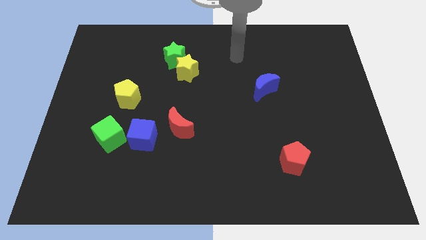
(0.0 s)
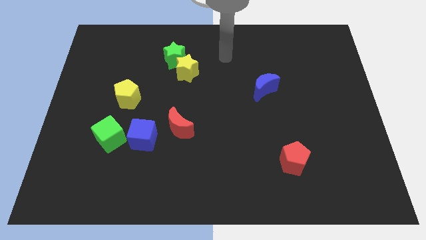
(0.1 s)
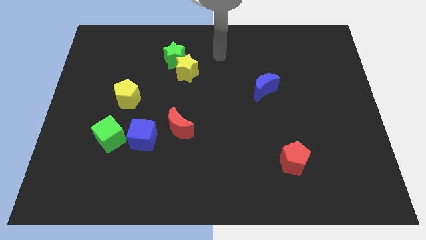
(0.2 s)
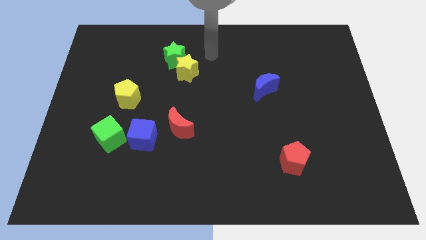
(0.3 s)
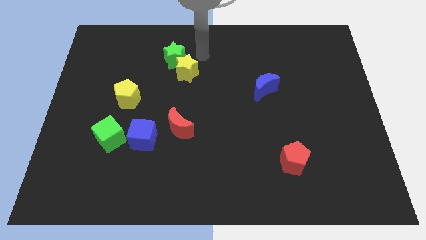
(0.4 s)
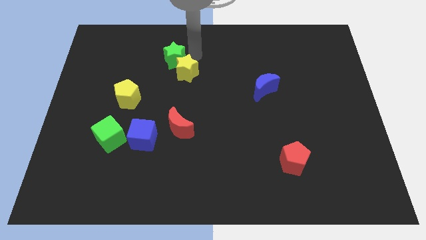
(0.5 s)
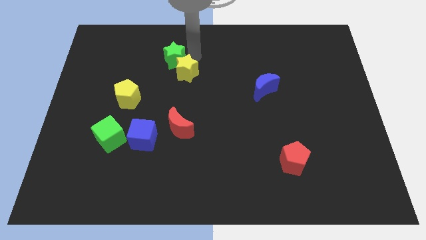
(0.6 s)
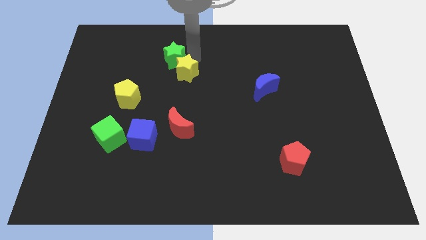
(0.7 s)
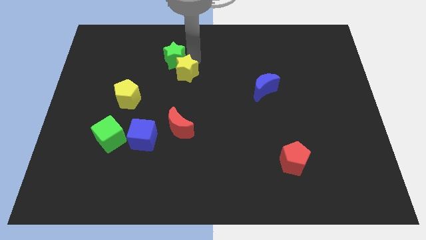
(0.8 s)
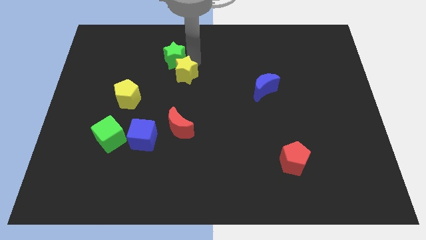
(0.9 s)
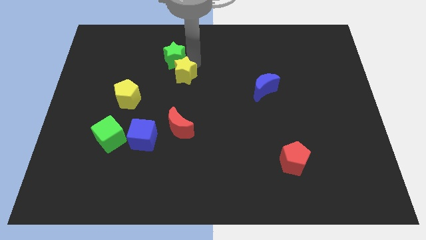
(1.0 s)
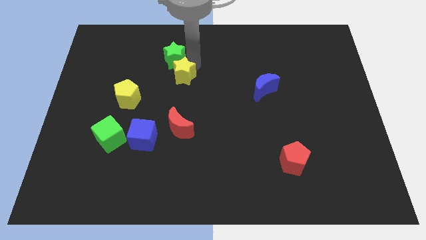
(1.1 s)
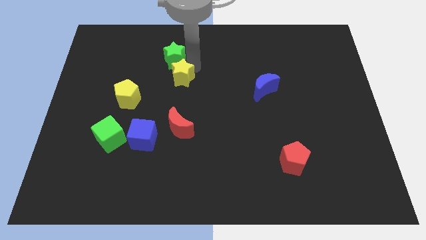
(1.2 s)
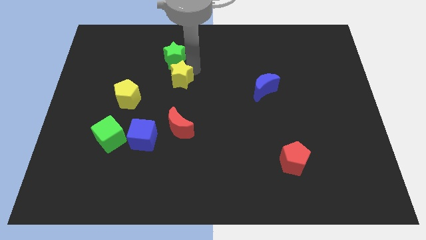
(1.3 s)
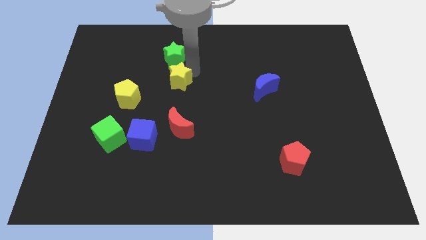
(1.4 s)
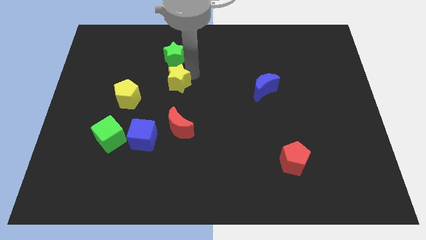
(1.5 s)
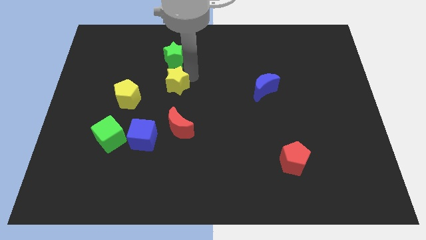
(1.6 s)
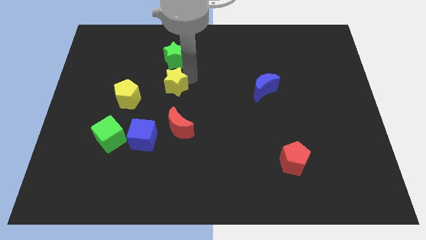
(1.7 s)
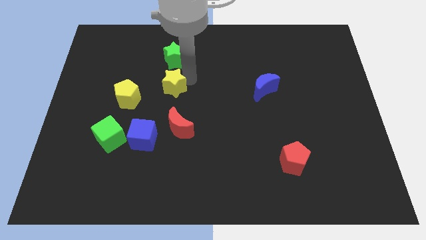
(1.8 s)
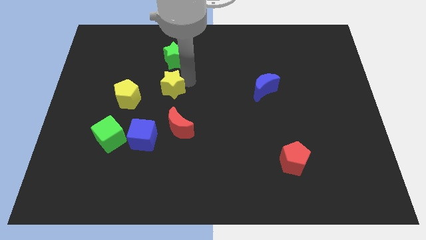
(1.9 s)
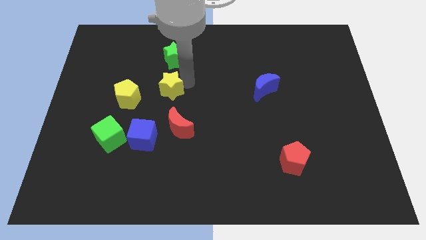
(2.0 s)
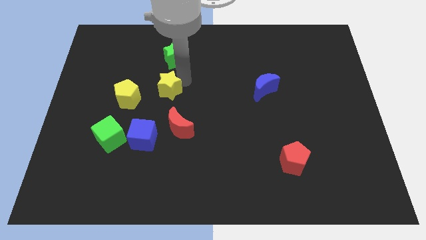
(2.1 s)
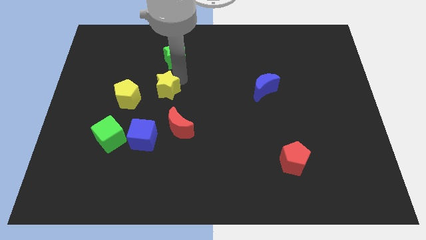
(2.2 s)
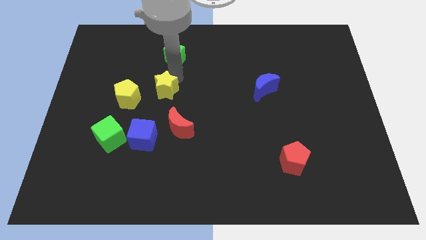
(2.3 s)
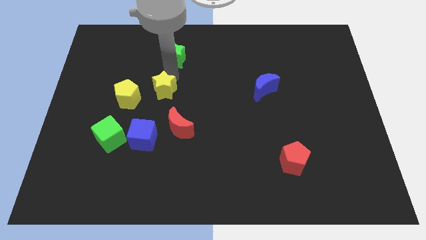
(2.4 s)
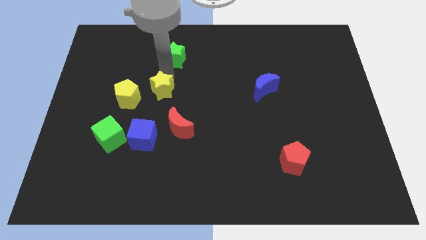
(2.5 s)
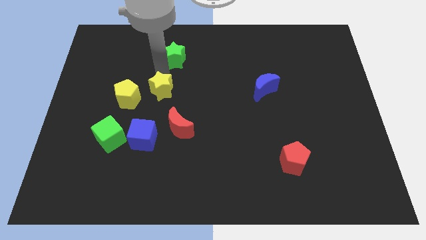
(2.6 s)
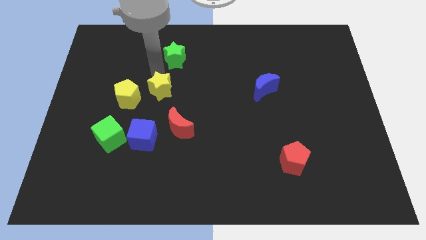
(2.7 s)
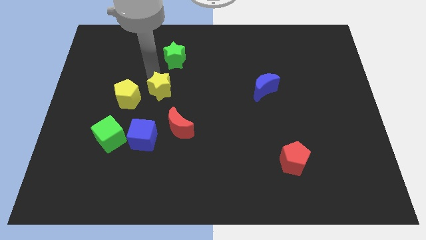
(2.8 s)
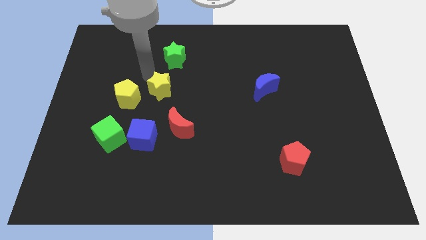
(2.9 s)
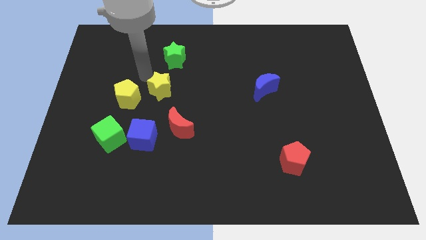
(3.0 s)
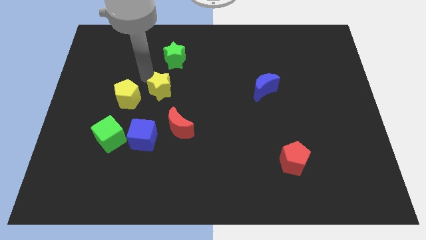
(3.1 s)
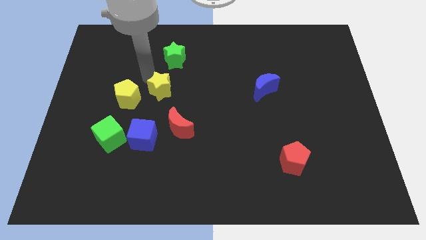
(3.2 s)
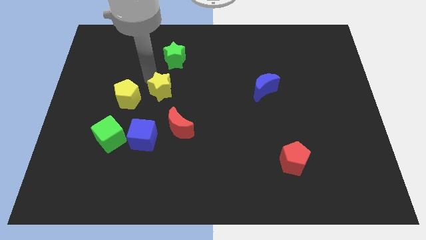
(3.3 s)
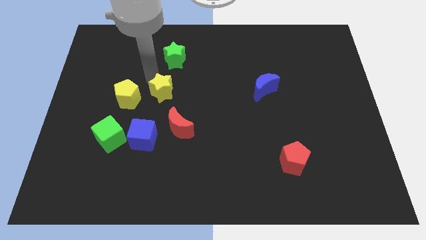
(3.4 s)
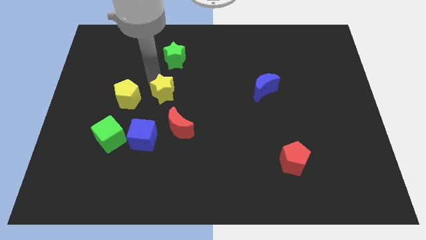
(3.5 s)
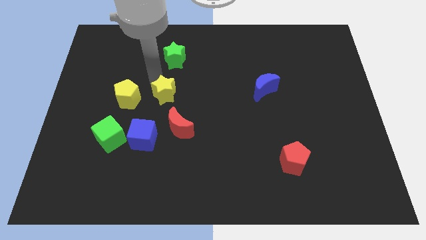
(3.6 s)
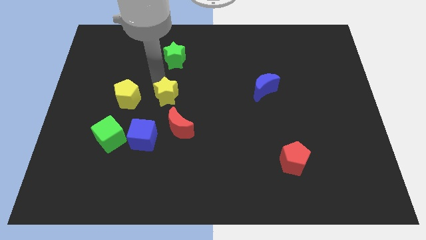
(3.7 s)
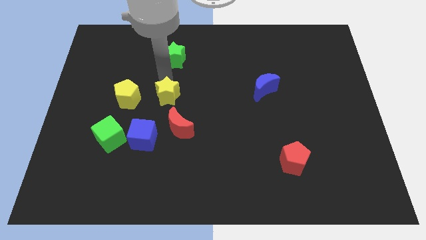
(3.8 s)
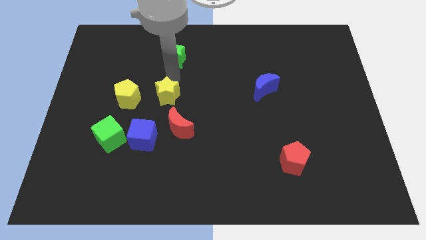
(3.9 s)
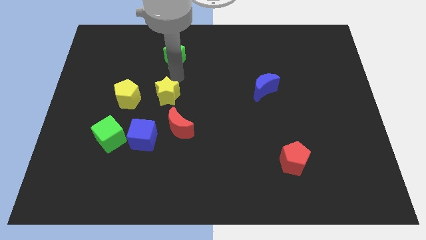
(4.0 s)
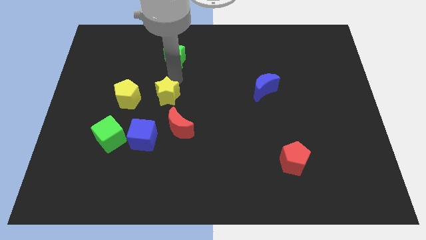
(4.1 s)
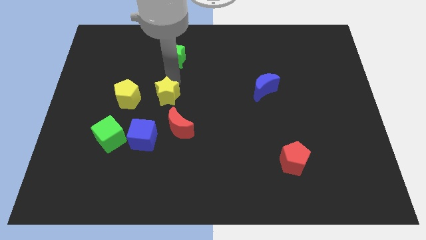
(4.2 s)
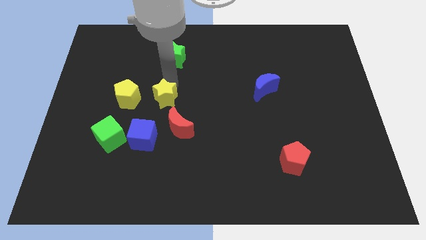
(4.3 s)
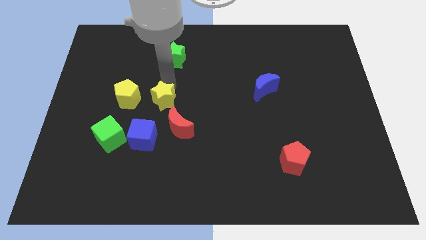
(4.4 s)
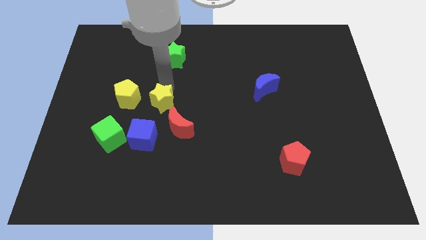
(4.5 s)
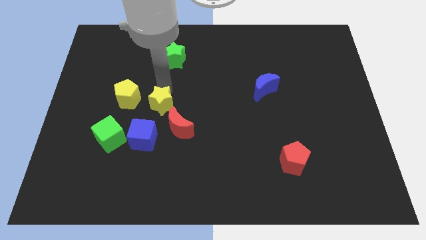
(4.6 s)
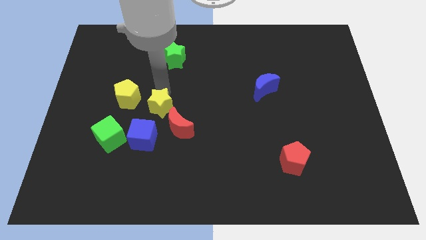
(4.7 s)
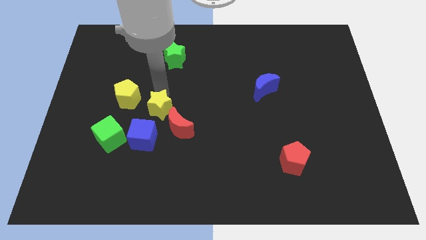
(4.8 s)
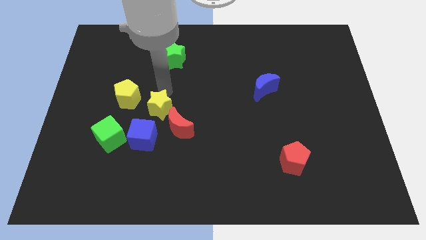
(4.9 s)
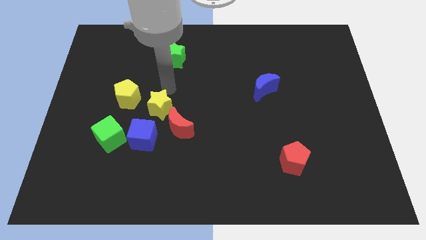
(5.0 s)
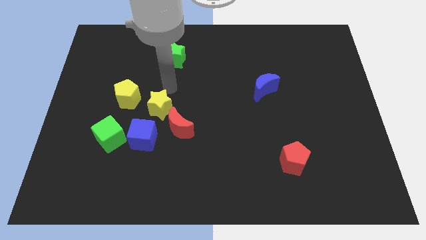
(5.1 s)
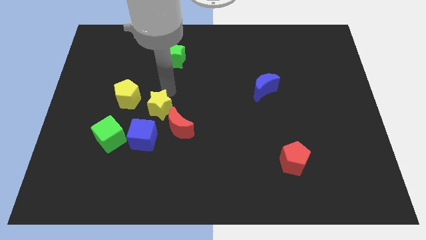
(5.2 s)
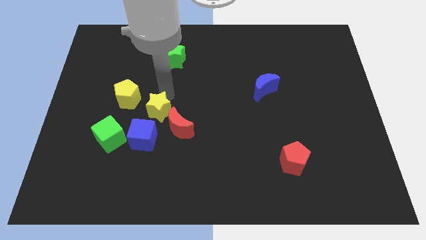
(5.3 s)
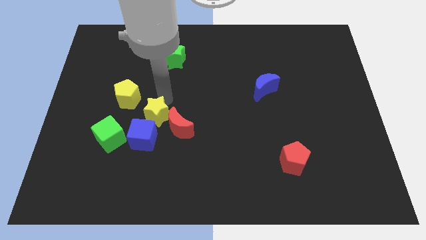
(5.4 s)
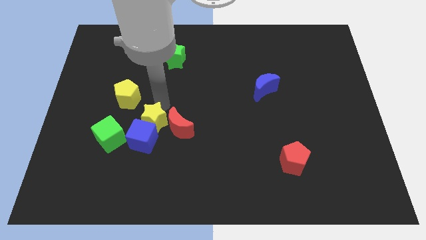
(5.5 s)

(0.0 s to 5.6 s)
push the yellow star just right of the green cube

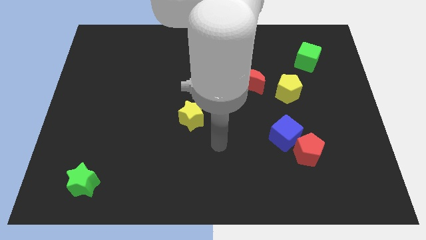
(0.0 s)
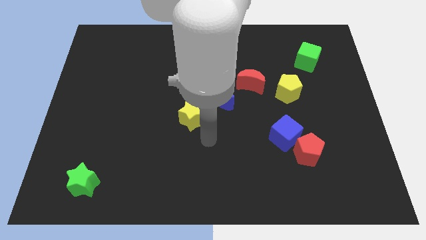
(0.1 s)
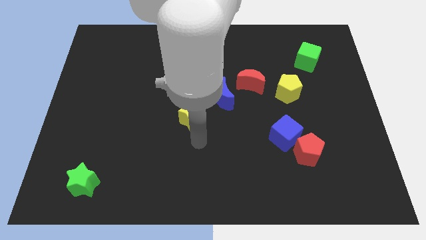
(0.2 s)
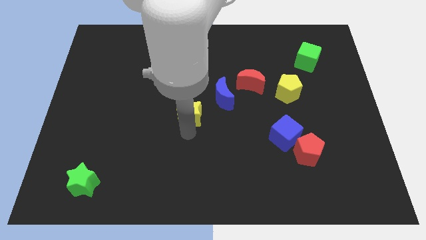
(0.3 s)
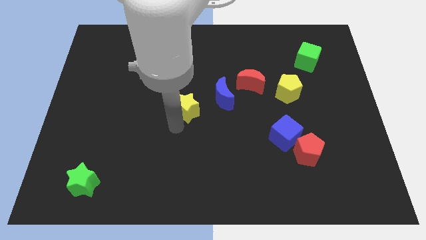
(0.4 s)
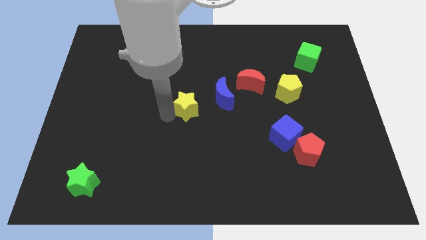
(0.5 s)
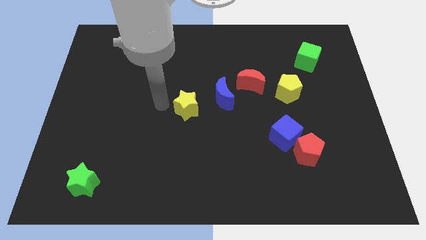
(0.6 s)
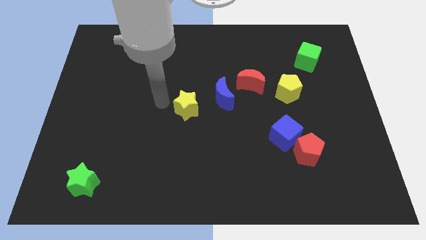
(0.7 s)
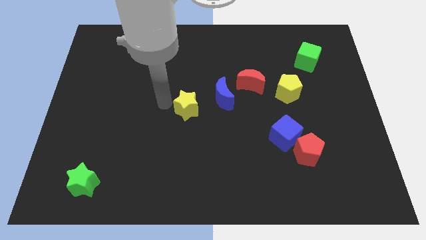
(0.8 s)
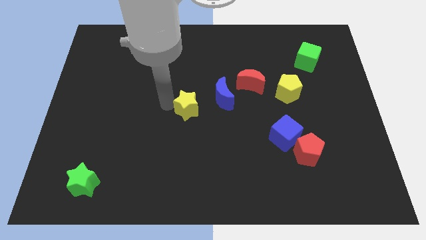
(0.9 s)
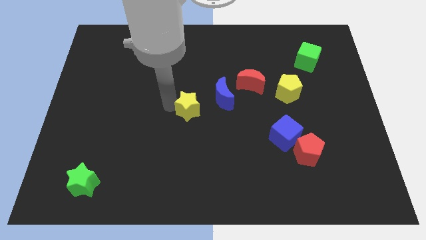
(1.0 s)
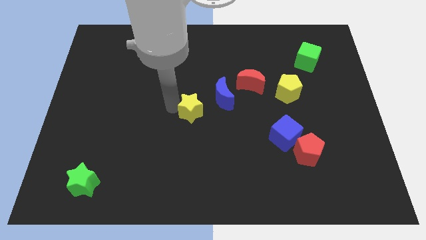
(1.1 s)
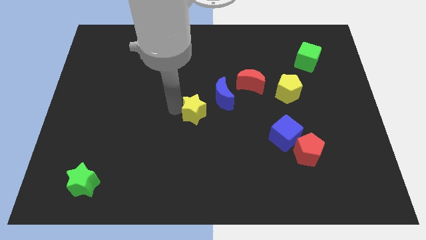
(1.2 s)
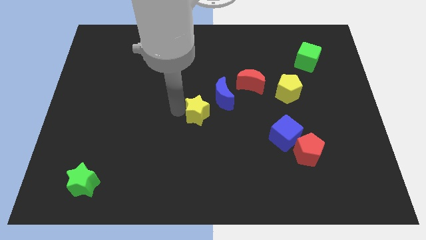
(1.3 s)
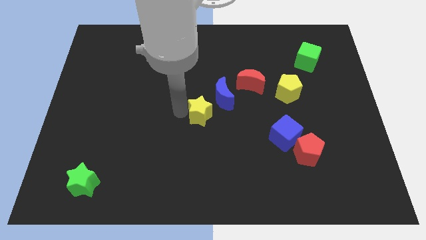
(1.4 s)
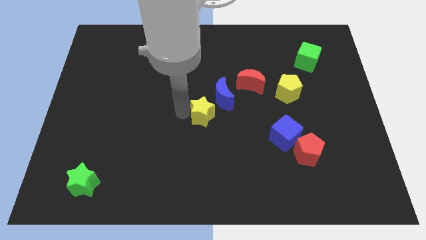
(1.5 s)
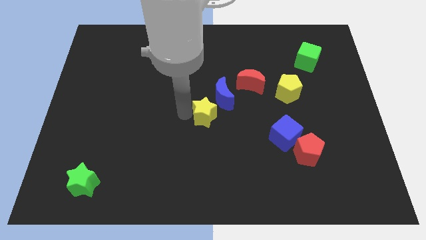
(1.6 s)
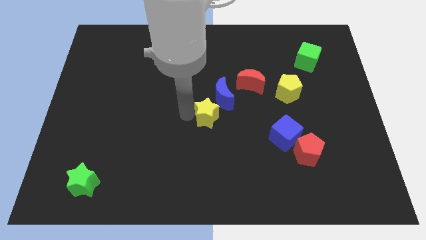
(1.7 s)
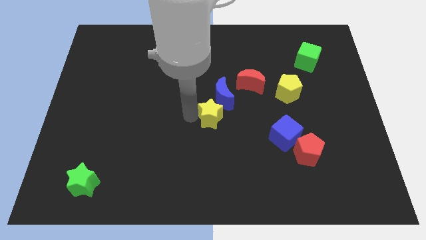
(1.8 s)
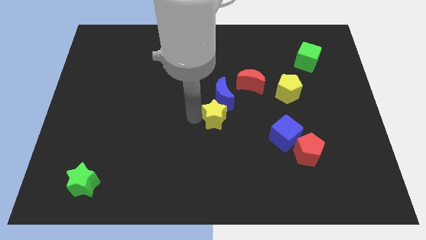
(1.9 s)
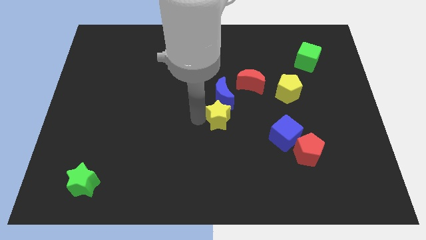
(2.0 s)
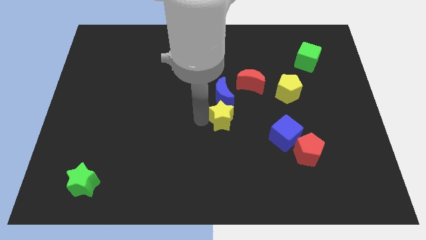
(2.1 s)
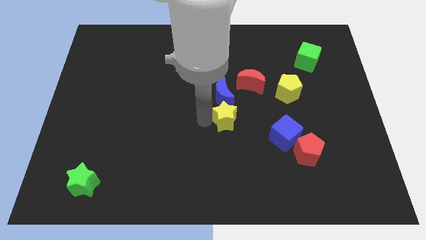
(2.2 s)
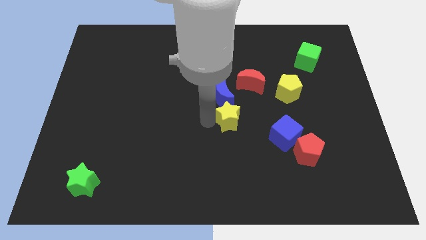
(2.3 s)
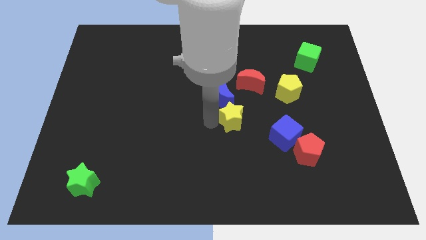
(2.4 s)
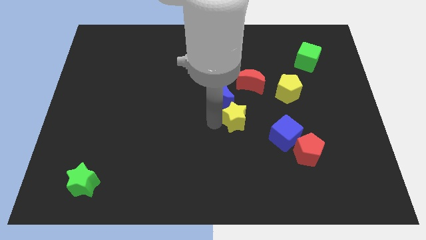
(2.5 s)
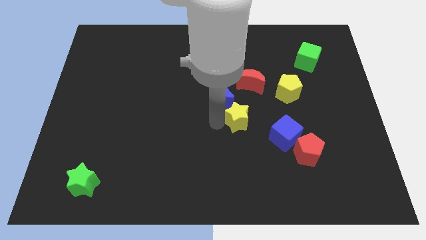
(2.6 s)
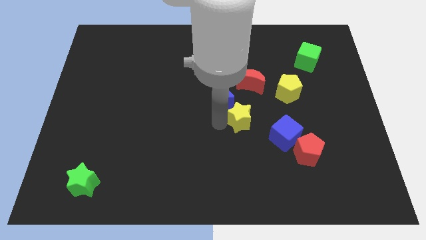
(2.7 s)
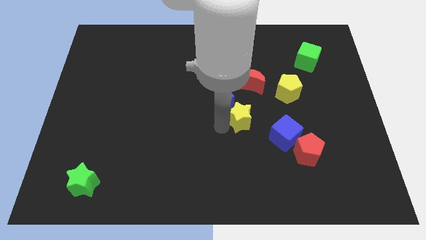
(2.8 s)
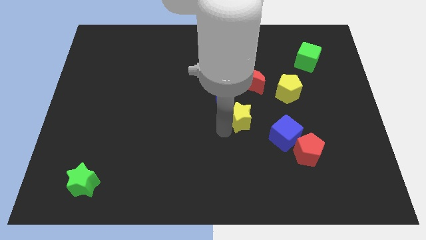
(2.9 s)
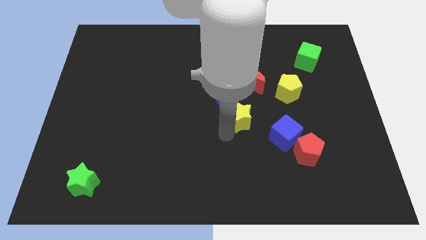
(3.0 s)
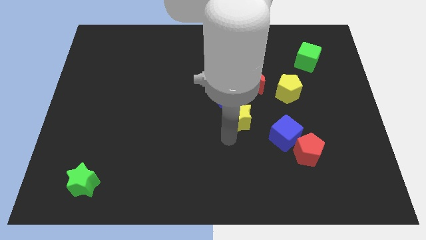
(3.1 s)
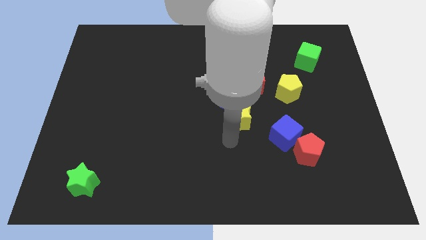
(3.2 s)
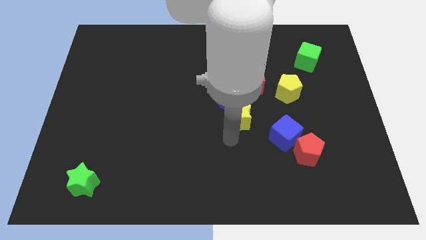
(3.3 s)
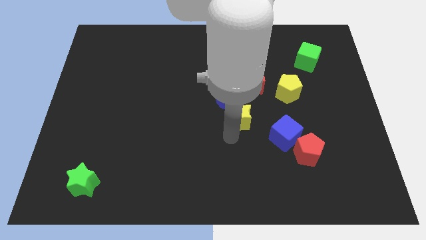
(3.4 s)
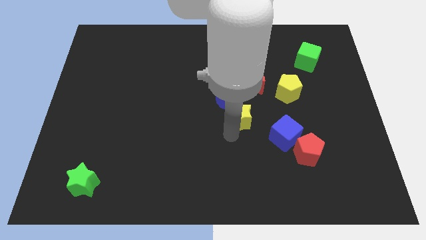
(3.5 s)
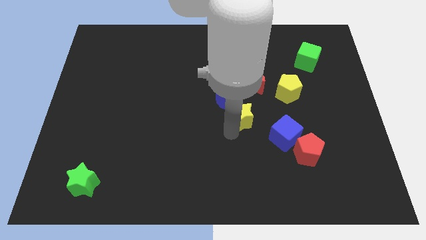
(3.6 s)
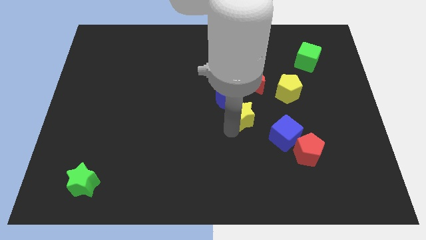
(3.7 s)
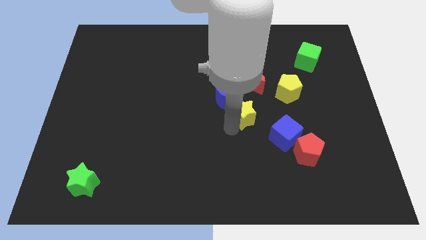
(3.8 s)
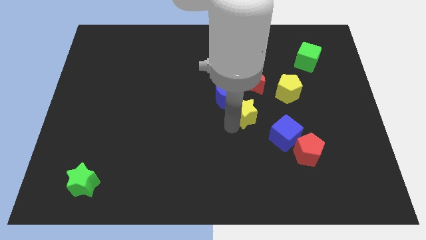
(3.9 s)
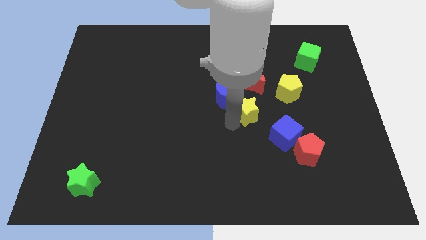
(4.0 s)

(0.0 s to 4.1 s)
push the yellow star just right of the blue moon
